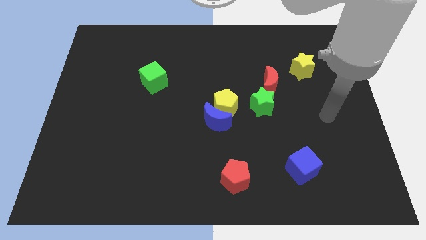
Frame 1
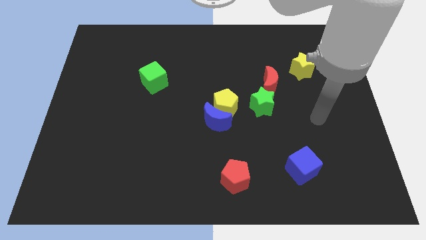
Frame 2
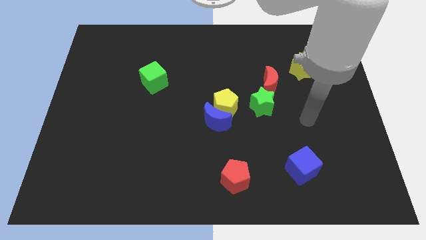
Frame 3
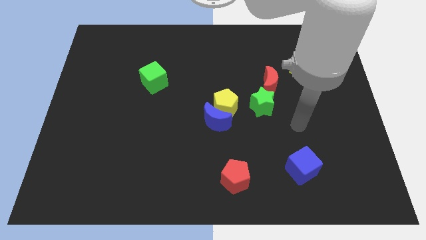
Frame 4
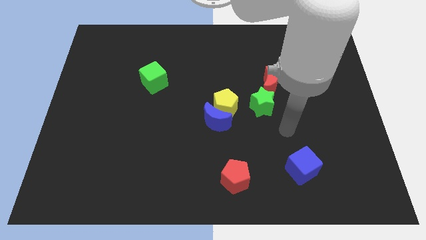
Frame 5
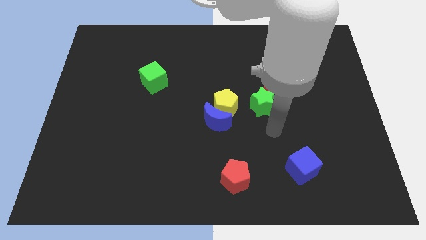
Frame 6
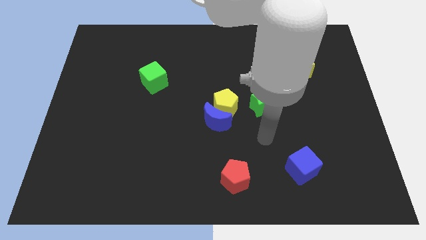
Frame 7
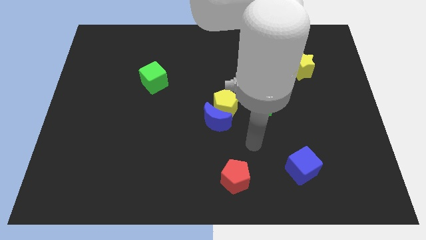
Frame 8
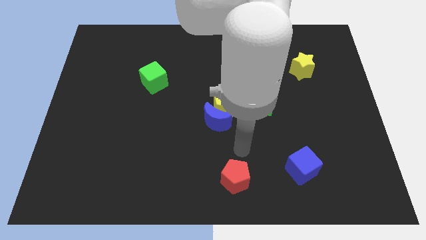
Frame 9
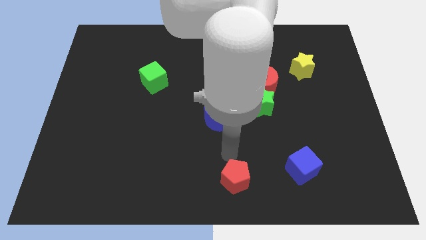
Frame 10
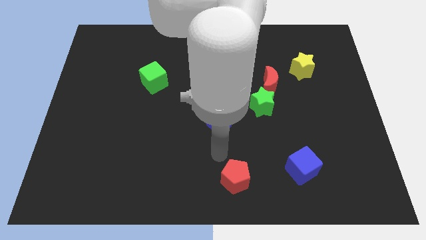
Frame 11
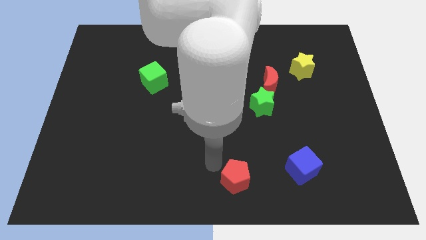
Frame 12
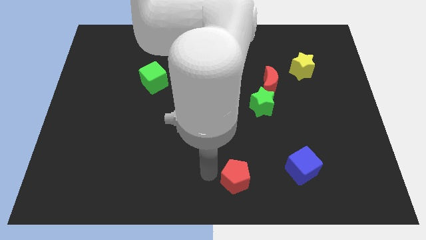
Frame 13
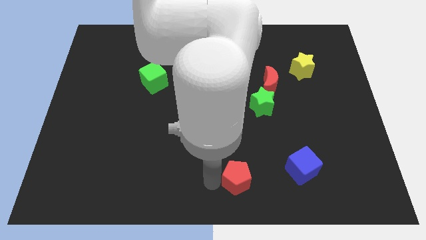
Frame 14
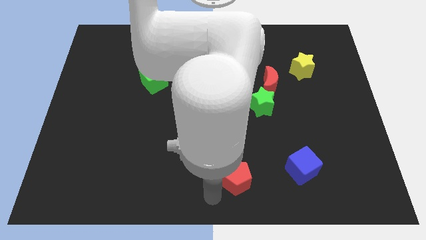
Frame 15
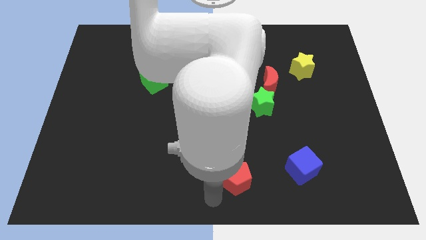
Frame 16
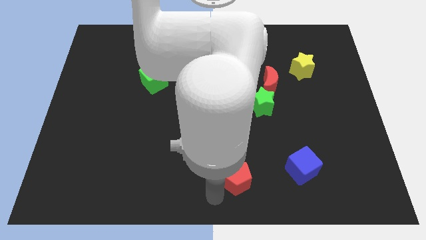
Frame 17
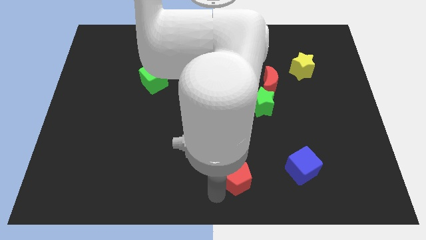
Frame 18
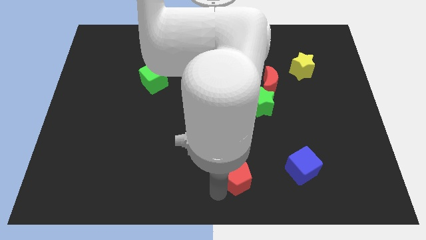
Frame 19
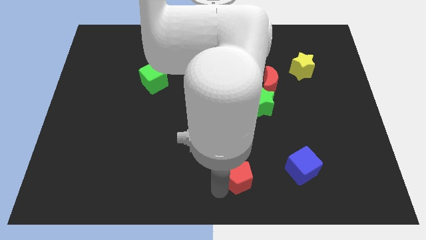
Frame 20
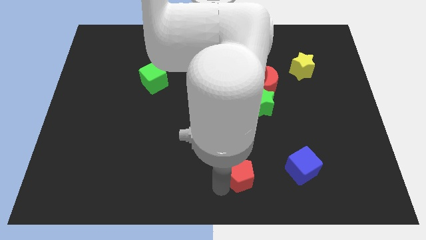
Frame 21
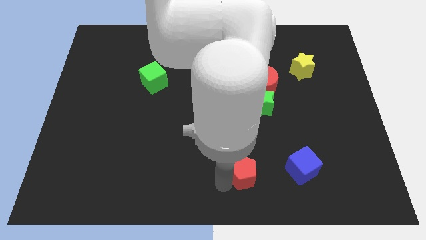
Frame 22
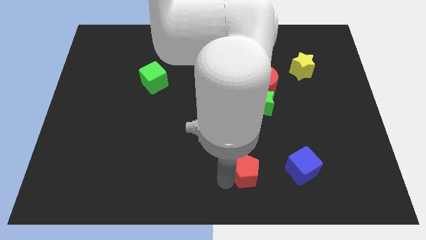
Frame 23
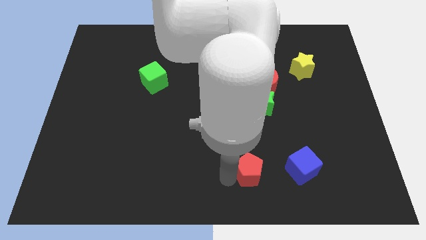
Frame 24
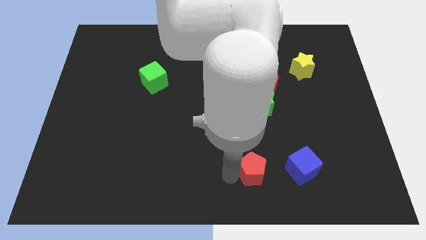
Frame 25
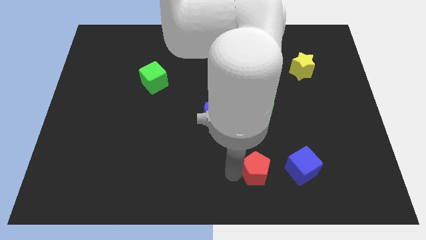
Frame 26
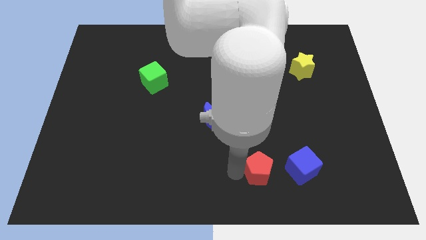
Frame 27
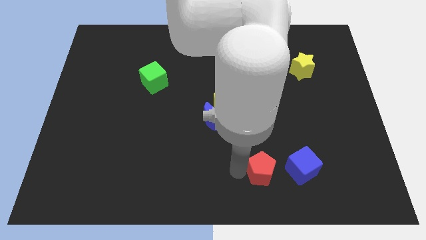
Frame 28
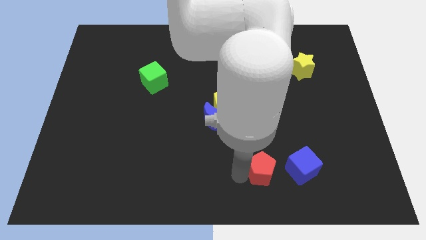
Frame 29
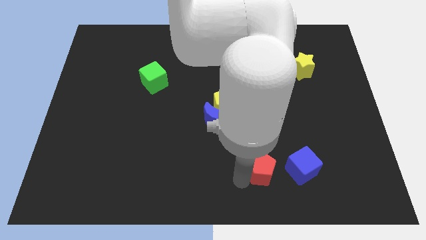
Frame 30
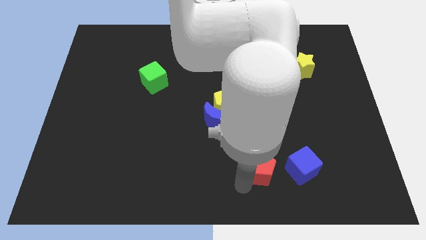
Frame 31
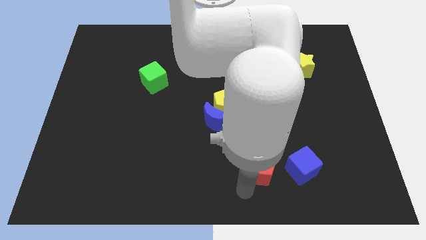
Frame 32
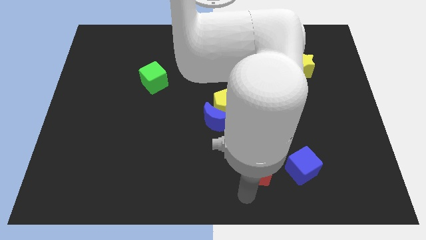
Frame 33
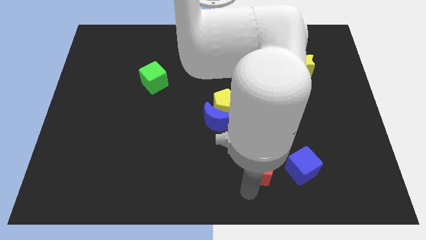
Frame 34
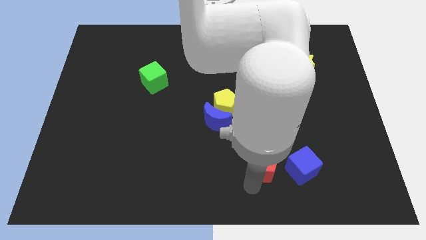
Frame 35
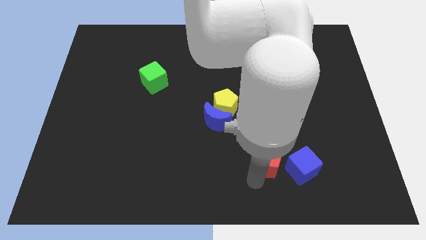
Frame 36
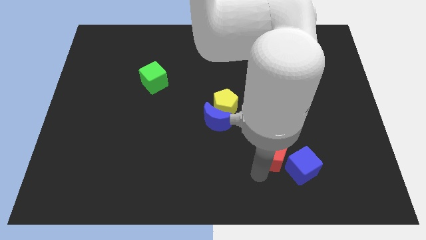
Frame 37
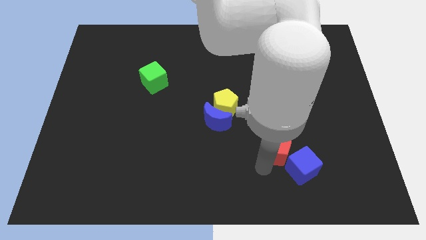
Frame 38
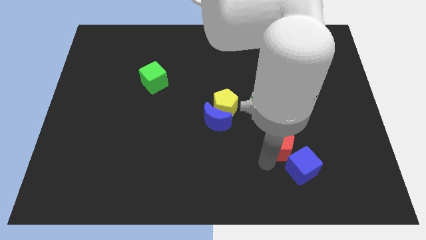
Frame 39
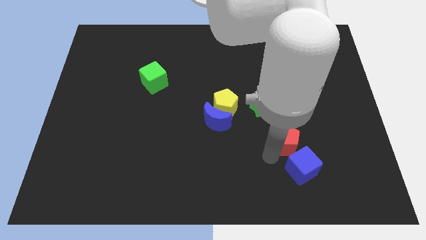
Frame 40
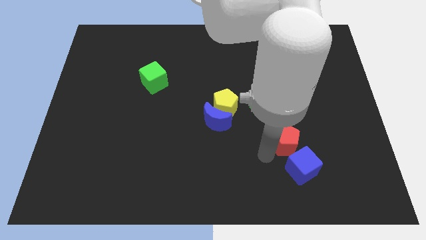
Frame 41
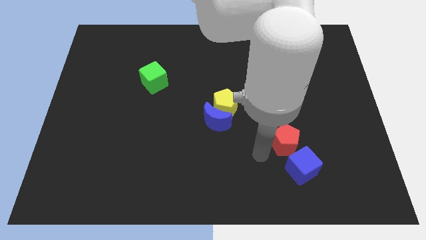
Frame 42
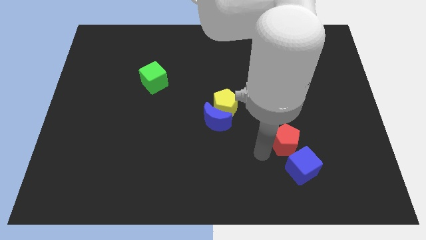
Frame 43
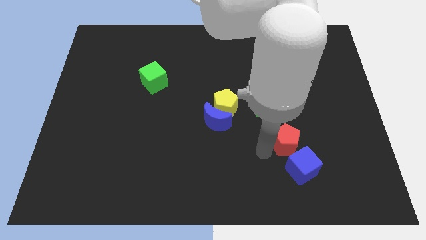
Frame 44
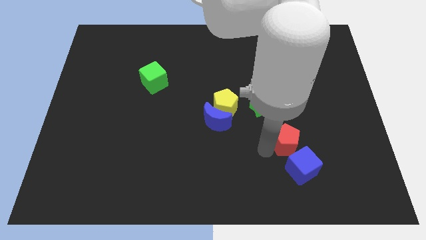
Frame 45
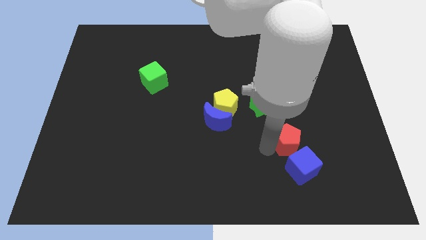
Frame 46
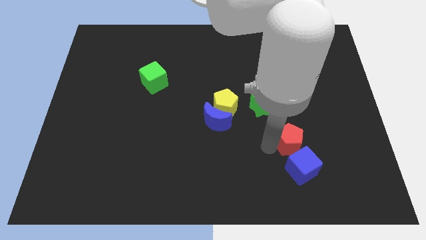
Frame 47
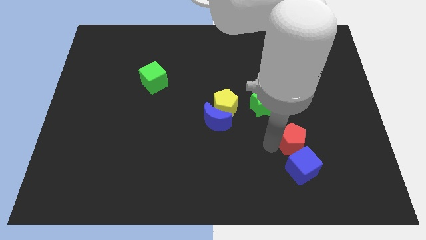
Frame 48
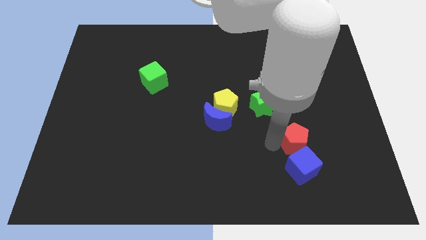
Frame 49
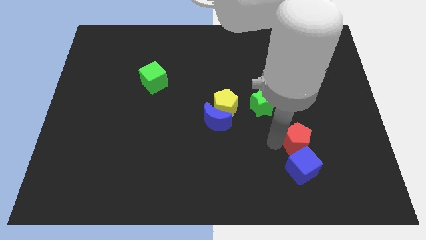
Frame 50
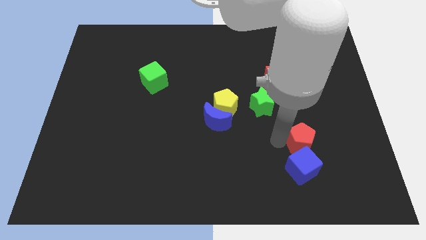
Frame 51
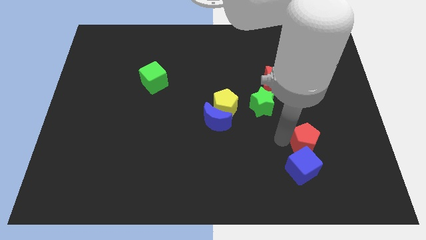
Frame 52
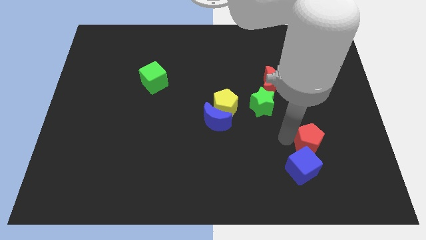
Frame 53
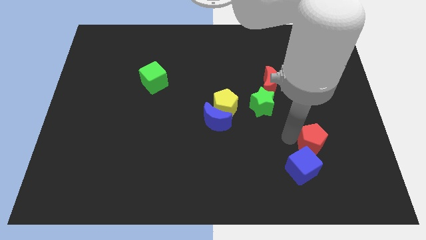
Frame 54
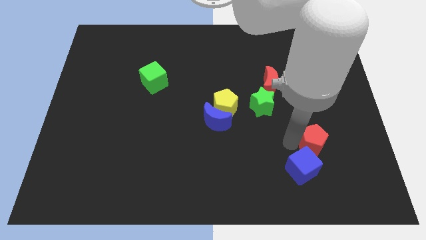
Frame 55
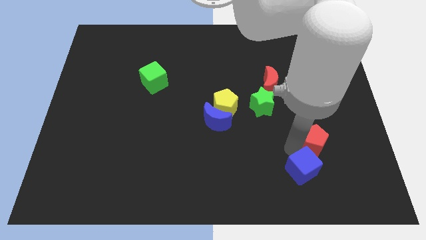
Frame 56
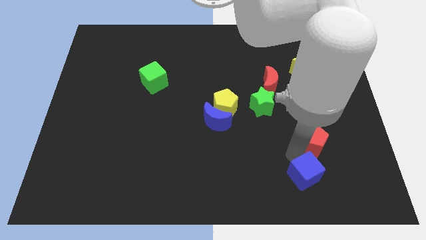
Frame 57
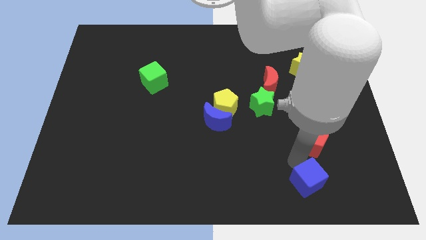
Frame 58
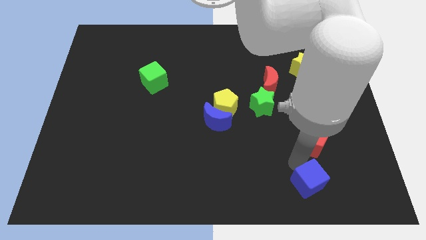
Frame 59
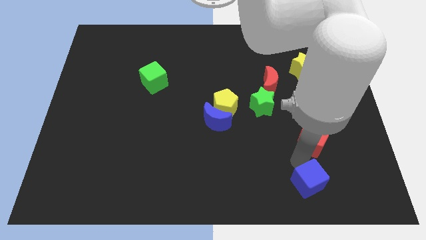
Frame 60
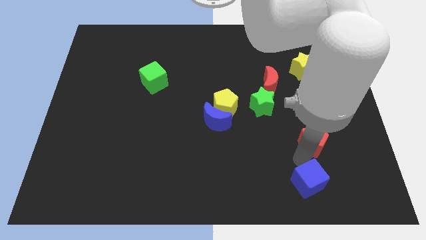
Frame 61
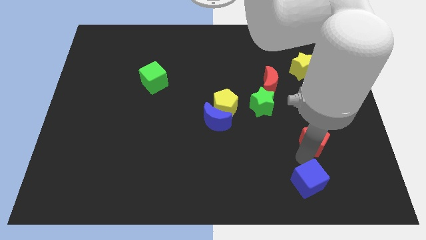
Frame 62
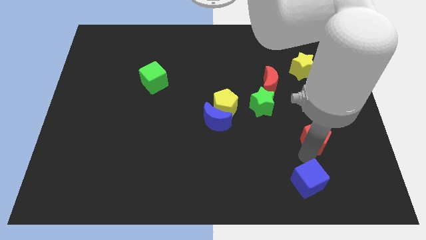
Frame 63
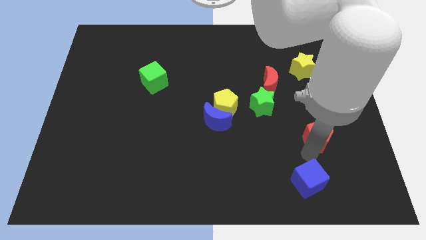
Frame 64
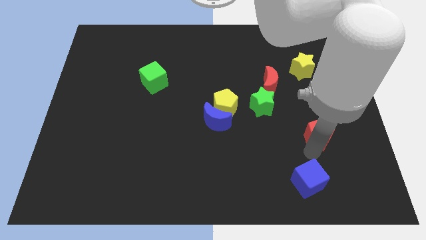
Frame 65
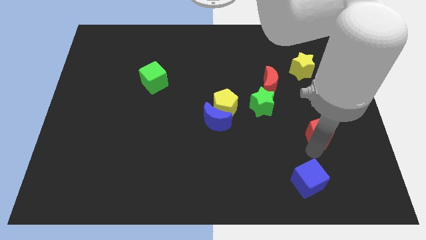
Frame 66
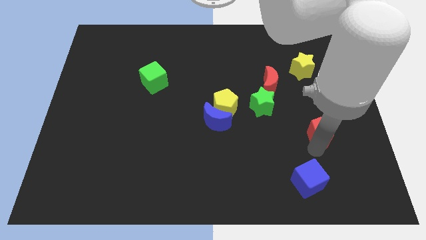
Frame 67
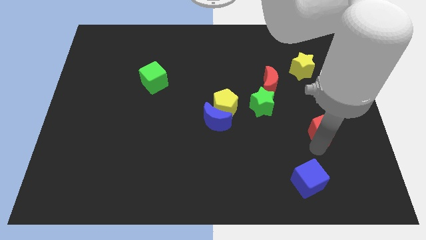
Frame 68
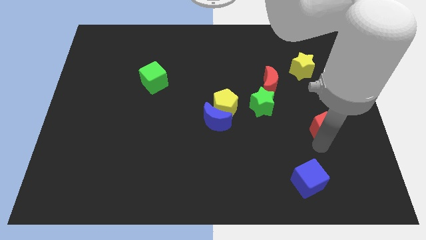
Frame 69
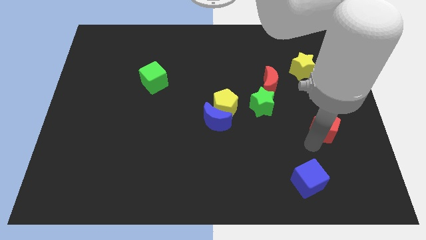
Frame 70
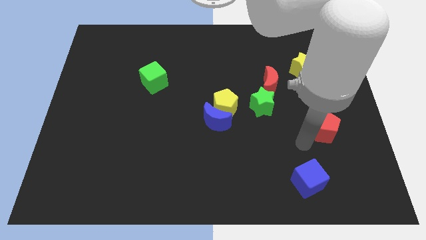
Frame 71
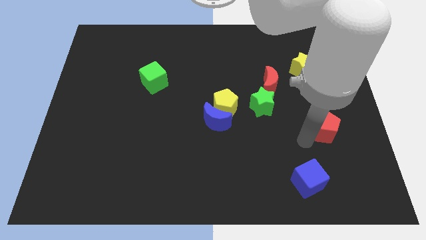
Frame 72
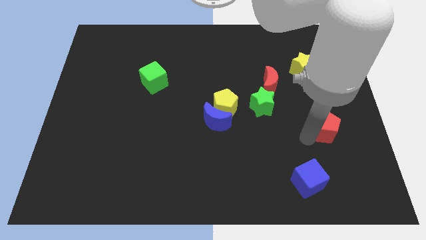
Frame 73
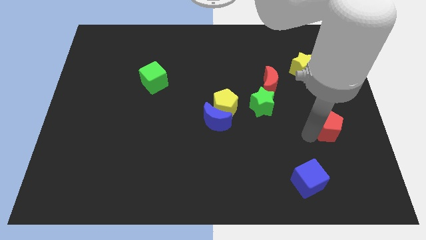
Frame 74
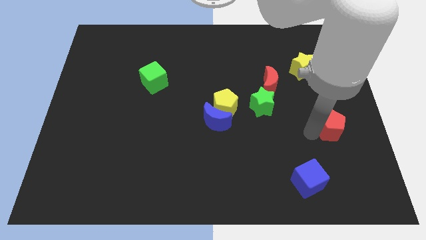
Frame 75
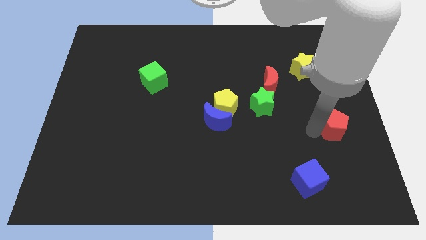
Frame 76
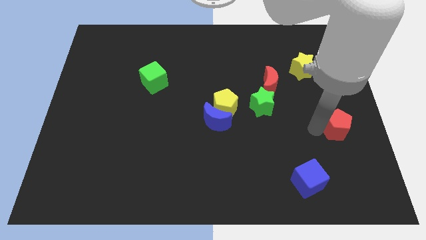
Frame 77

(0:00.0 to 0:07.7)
move the red pentagon to the right side of the board
